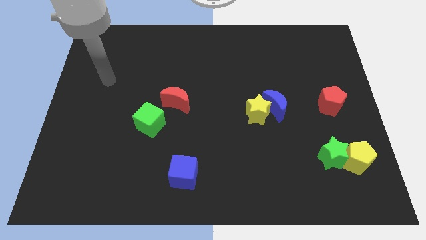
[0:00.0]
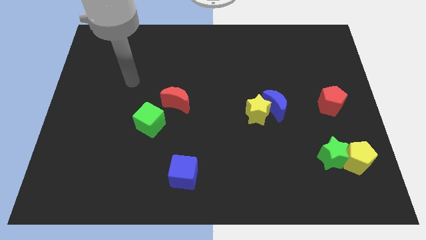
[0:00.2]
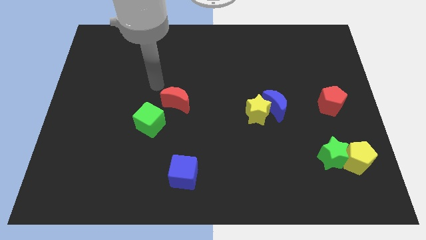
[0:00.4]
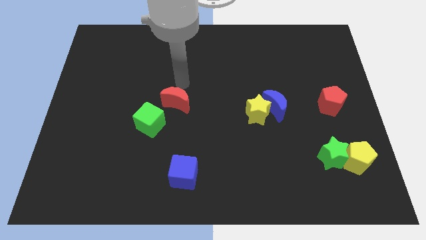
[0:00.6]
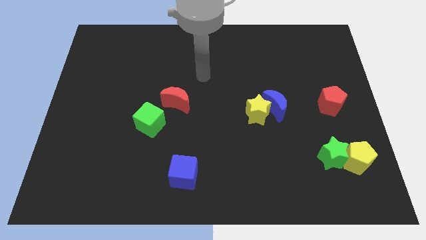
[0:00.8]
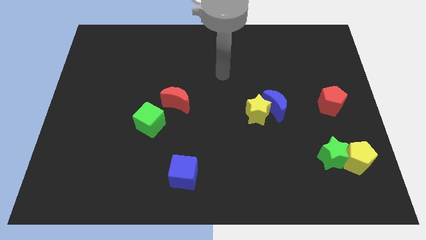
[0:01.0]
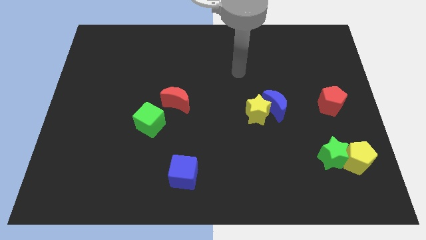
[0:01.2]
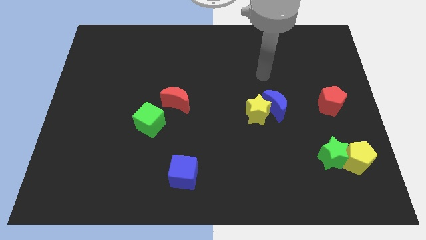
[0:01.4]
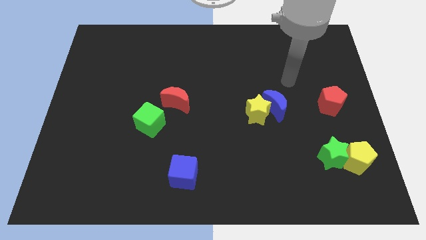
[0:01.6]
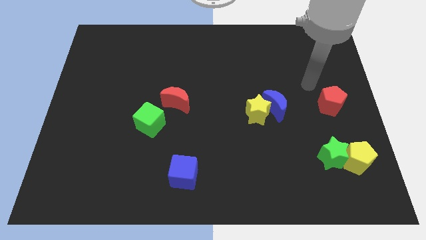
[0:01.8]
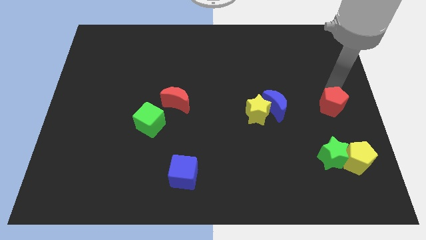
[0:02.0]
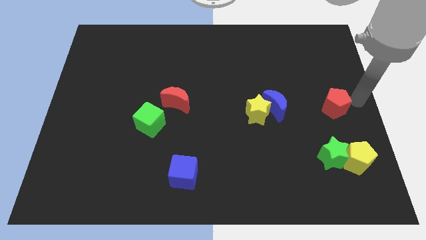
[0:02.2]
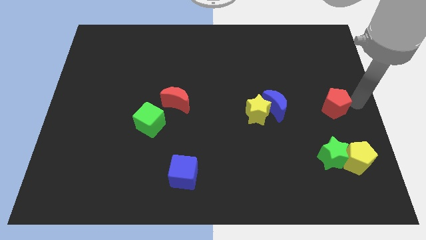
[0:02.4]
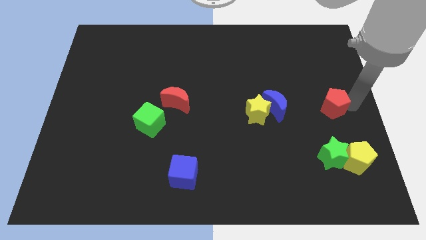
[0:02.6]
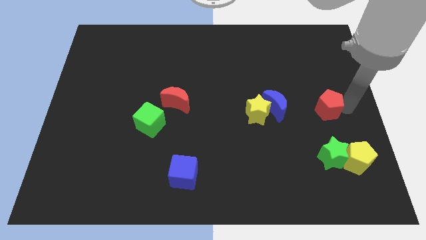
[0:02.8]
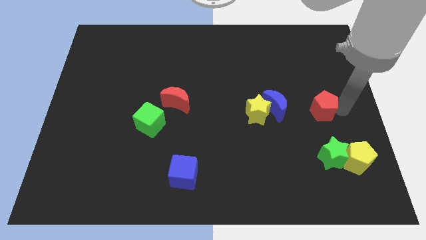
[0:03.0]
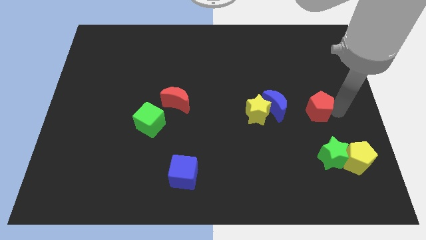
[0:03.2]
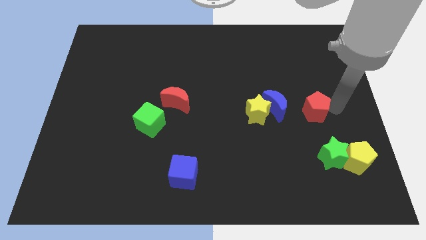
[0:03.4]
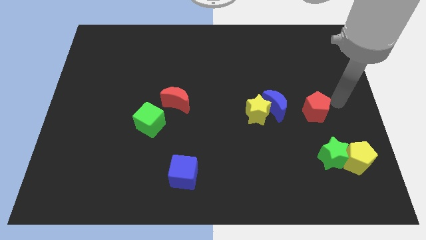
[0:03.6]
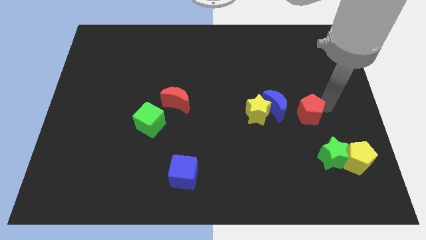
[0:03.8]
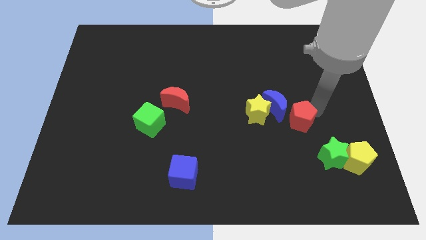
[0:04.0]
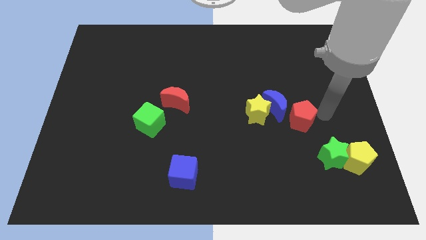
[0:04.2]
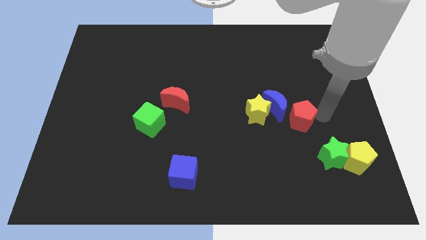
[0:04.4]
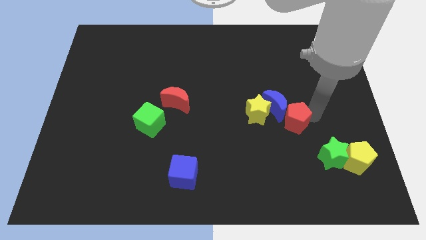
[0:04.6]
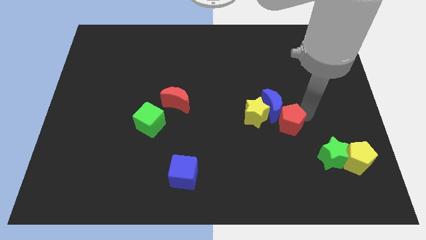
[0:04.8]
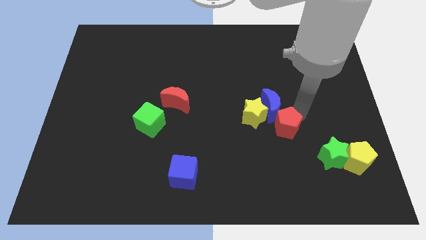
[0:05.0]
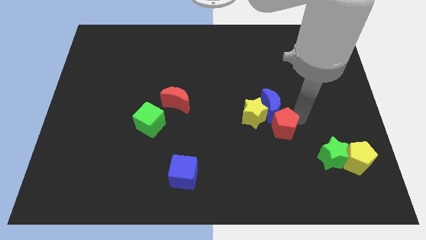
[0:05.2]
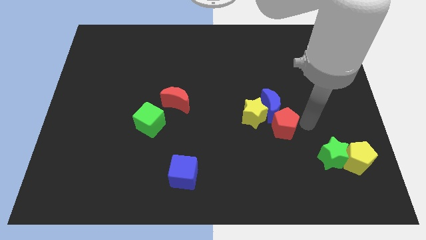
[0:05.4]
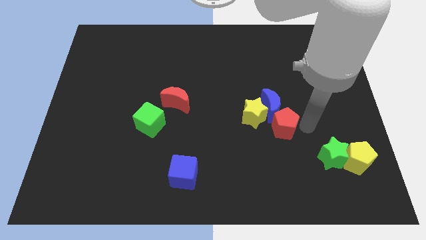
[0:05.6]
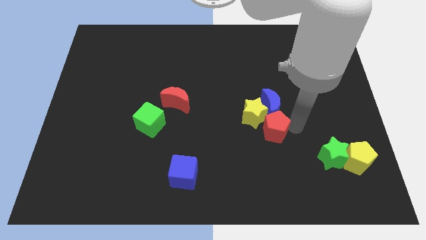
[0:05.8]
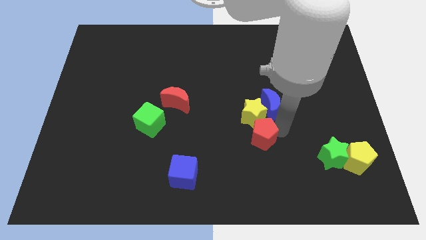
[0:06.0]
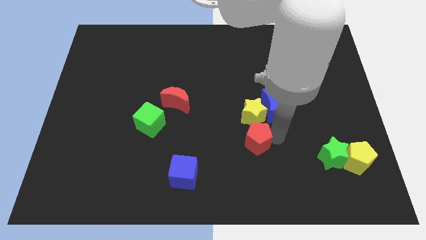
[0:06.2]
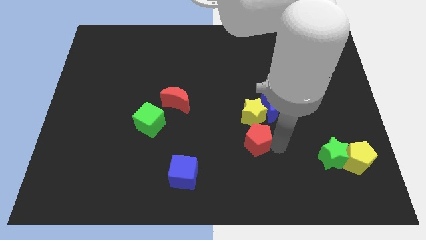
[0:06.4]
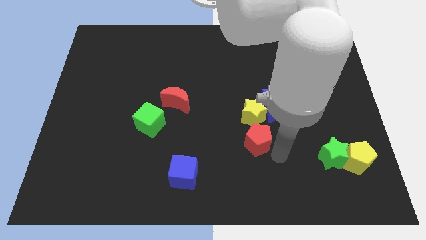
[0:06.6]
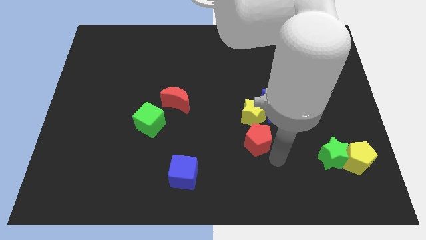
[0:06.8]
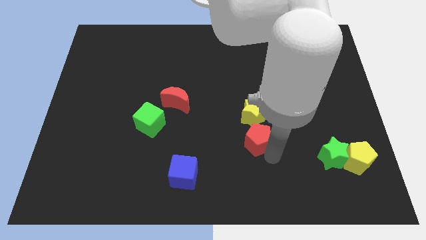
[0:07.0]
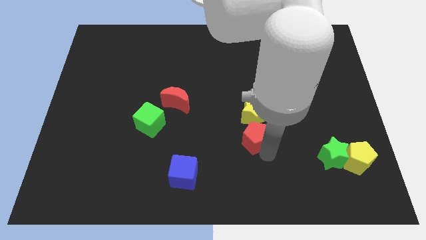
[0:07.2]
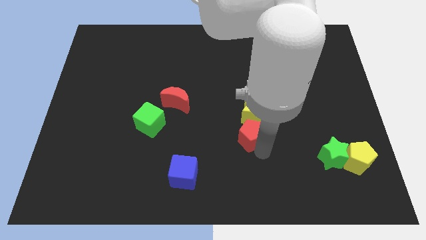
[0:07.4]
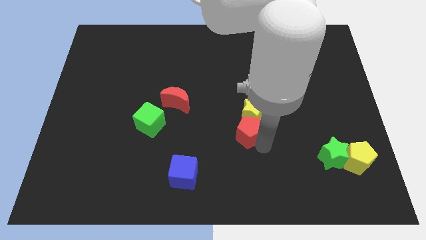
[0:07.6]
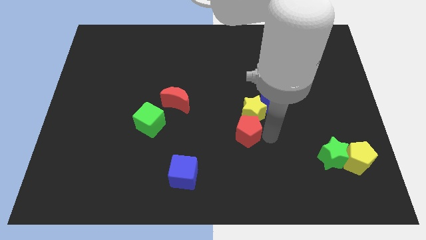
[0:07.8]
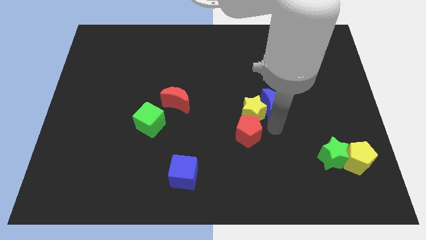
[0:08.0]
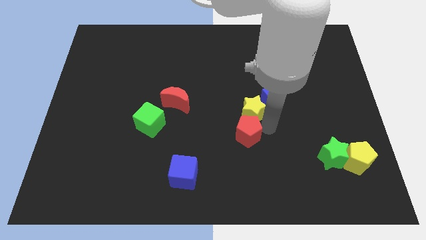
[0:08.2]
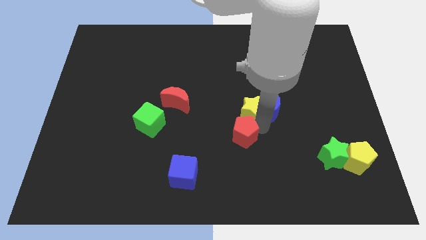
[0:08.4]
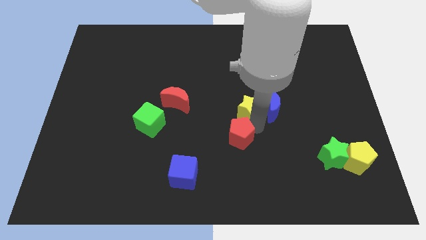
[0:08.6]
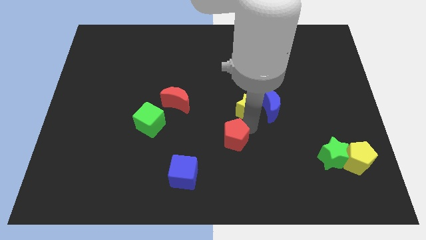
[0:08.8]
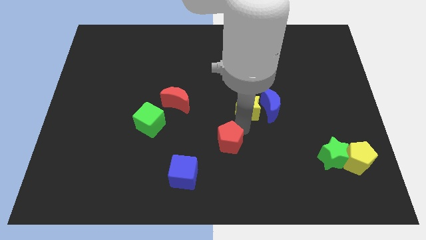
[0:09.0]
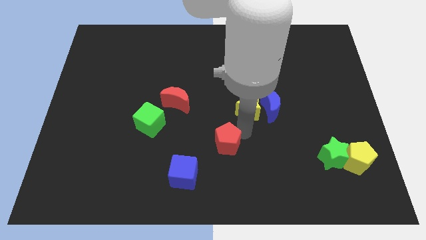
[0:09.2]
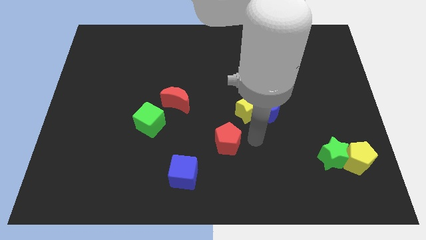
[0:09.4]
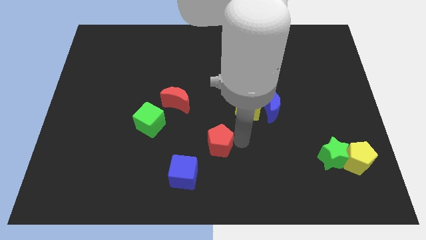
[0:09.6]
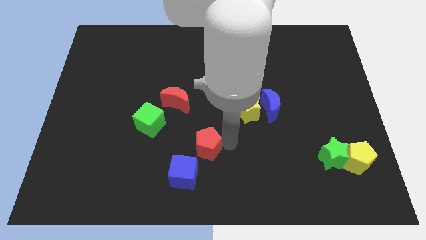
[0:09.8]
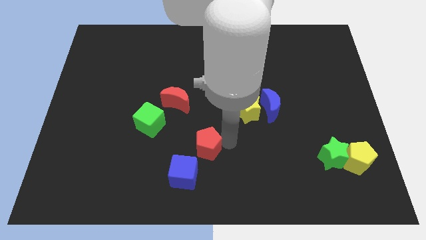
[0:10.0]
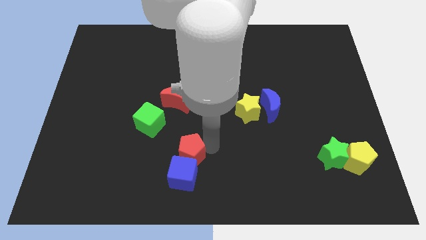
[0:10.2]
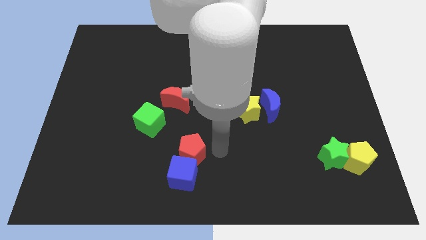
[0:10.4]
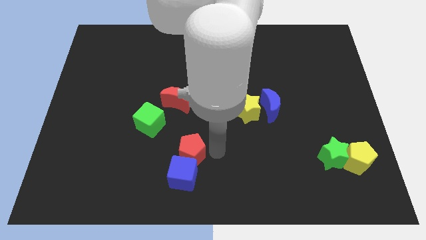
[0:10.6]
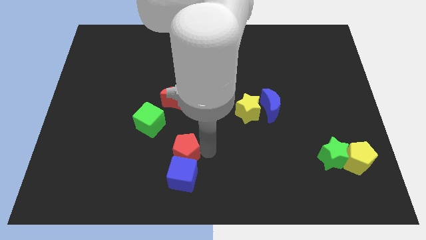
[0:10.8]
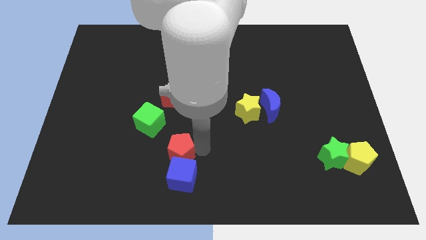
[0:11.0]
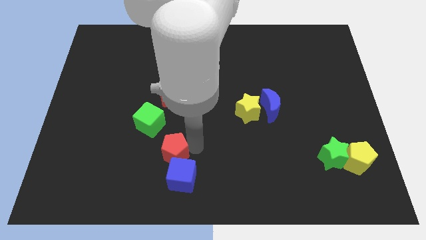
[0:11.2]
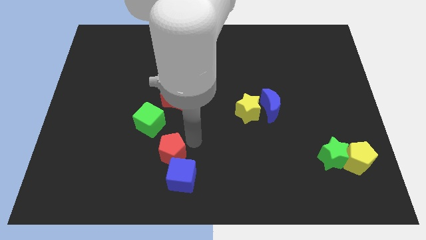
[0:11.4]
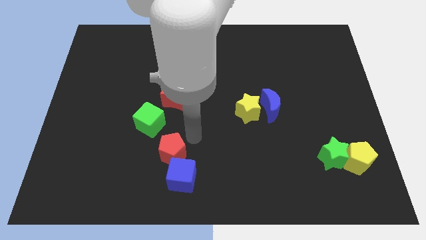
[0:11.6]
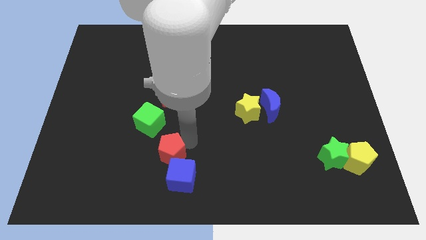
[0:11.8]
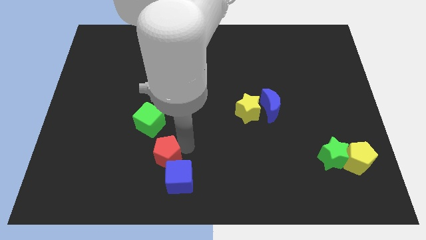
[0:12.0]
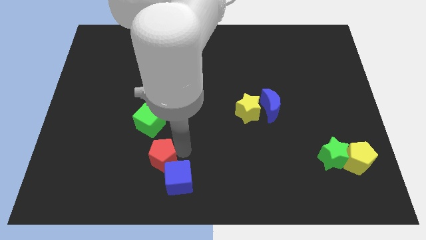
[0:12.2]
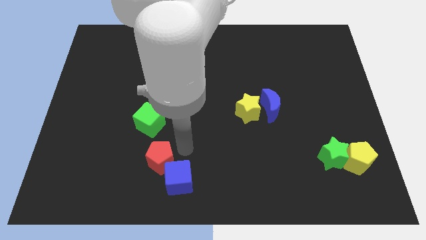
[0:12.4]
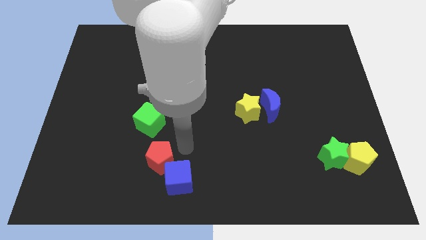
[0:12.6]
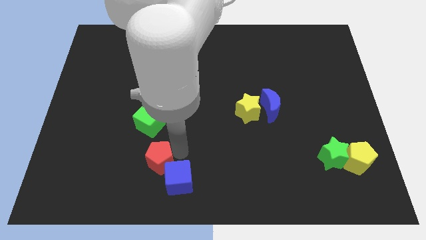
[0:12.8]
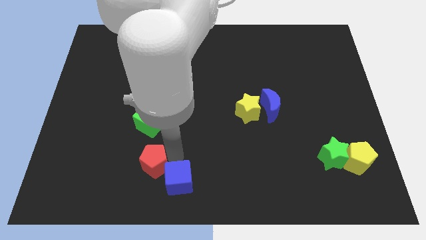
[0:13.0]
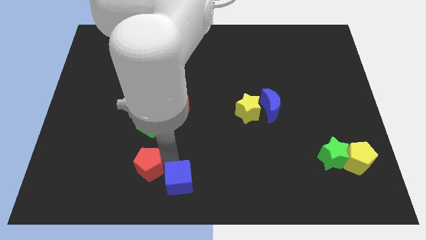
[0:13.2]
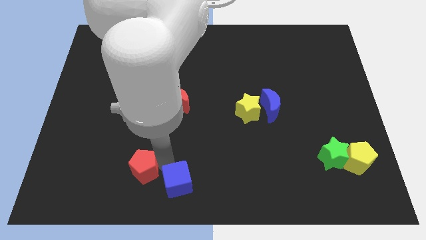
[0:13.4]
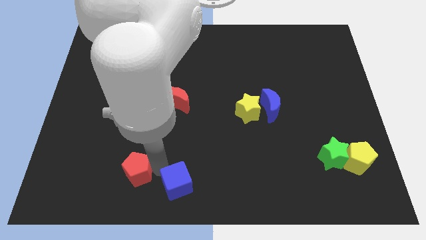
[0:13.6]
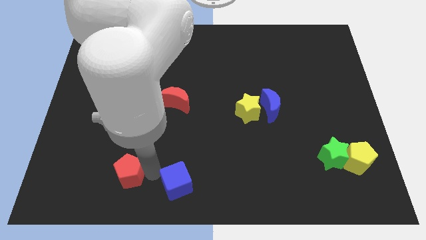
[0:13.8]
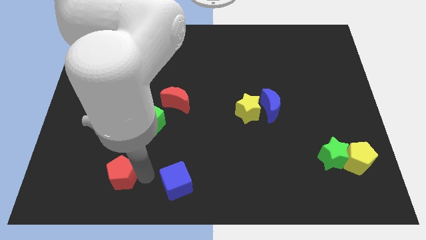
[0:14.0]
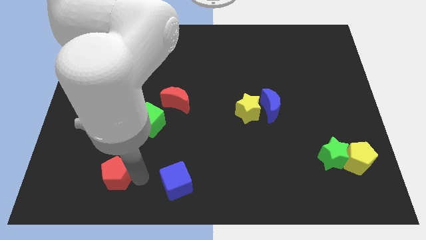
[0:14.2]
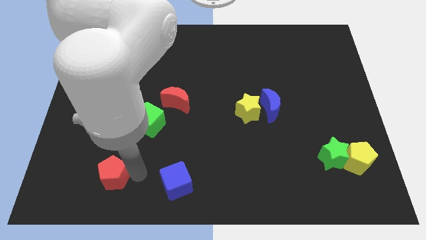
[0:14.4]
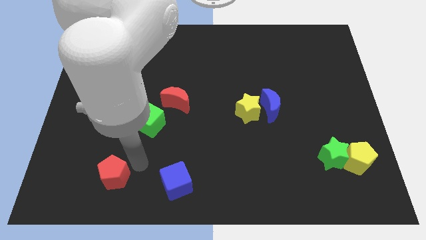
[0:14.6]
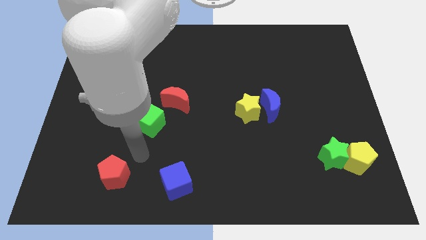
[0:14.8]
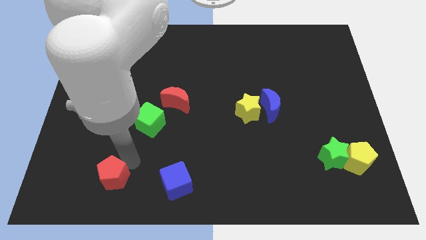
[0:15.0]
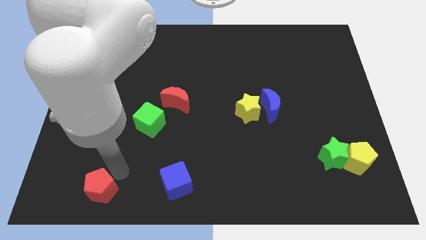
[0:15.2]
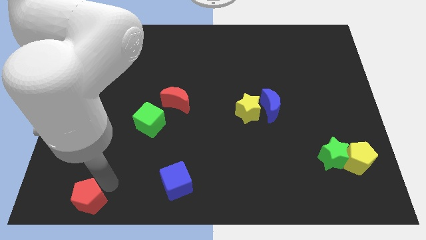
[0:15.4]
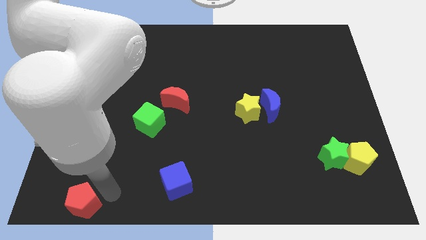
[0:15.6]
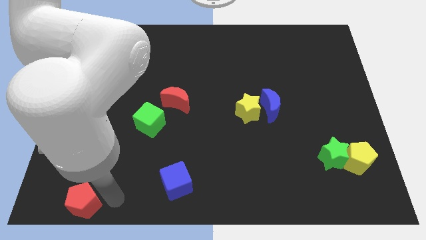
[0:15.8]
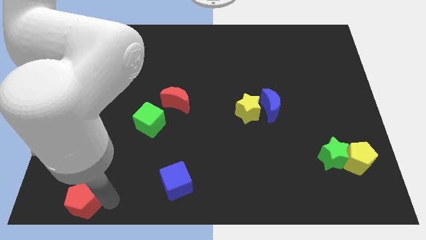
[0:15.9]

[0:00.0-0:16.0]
slide the red pentagon to the bottom left
